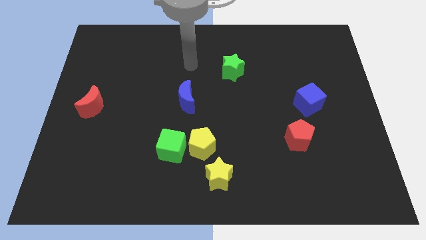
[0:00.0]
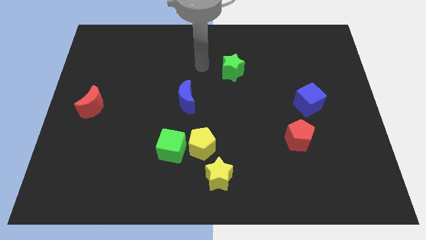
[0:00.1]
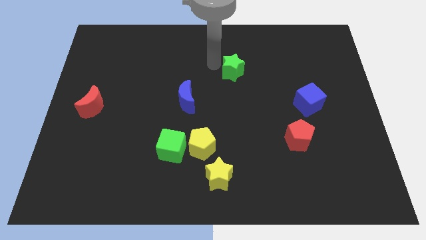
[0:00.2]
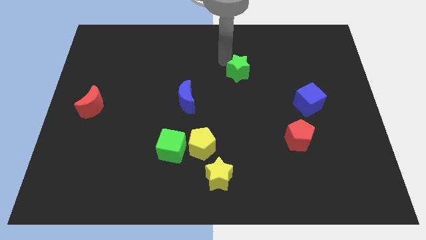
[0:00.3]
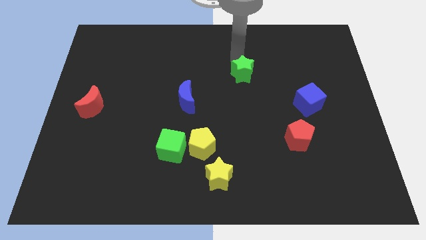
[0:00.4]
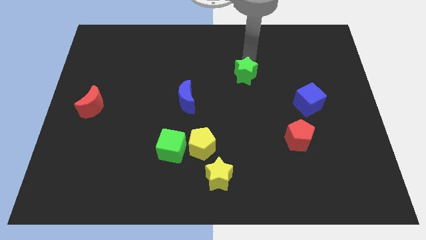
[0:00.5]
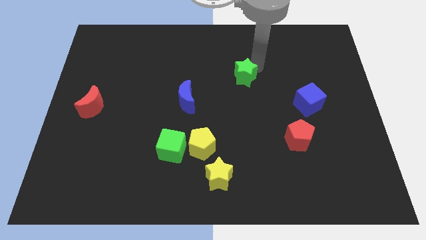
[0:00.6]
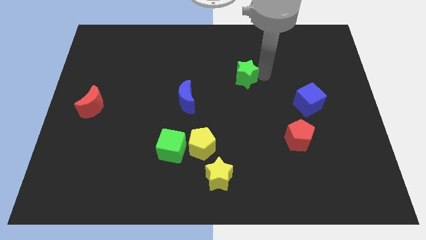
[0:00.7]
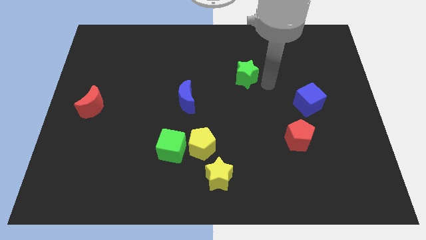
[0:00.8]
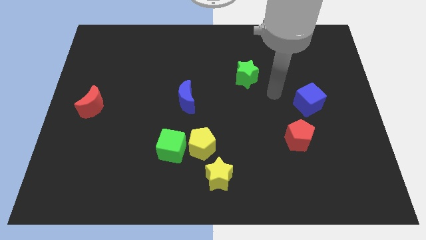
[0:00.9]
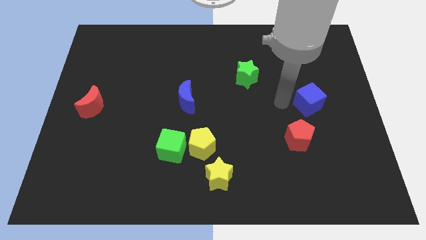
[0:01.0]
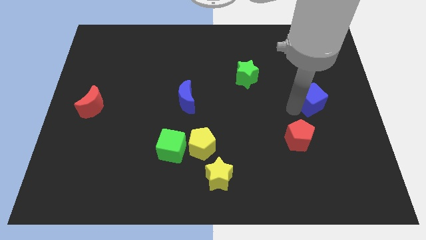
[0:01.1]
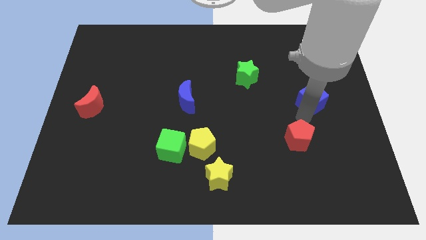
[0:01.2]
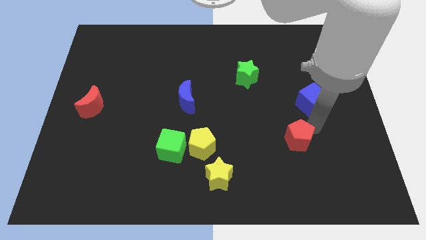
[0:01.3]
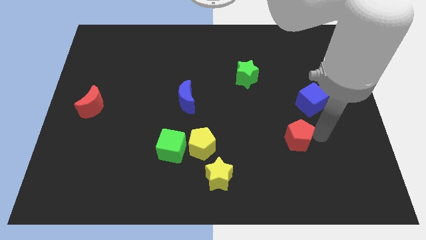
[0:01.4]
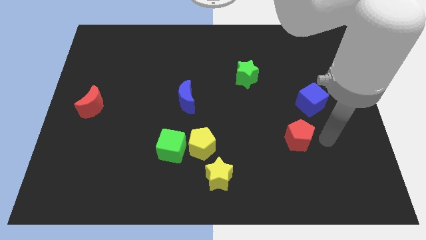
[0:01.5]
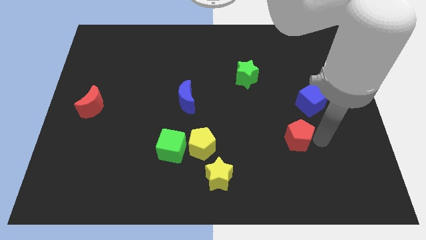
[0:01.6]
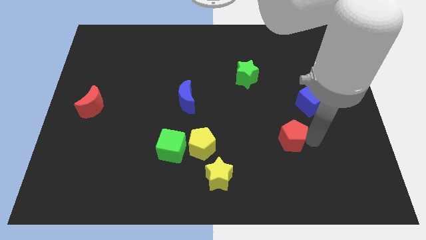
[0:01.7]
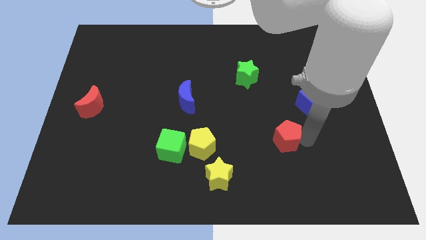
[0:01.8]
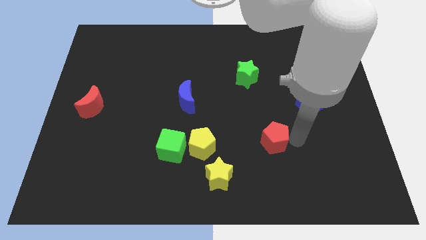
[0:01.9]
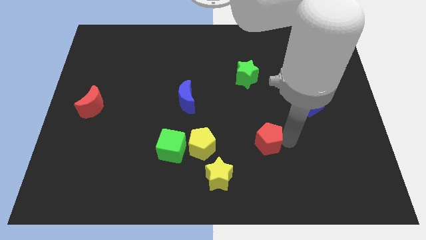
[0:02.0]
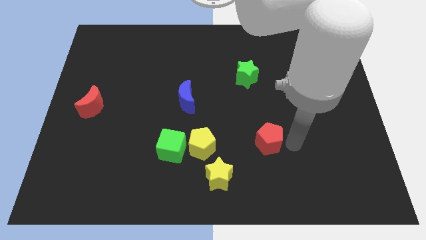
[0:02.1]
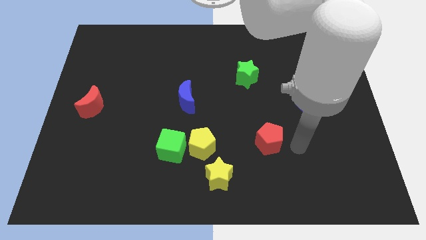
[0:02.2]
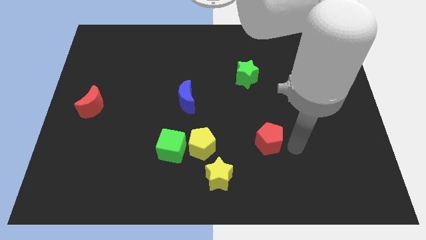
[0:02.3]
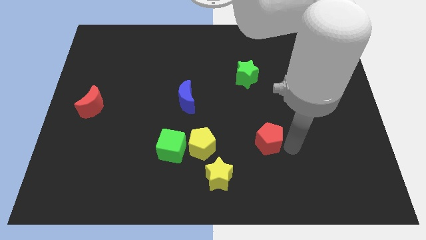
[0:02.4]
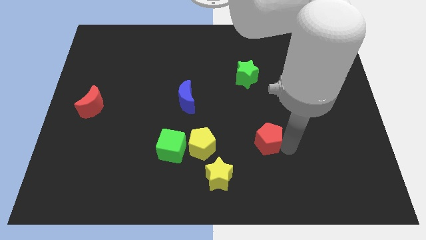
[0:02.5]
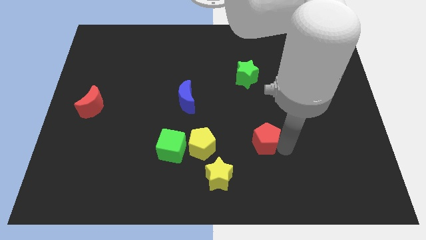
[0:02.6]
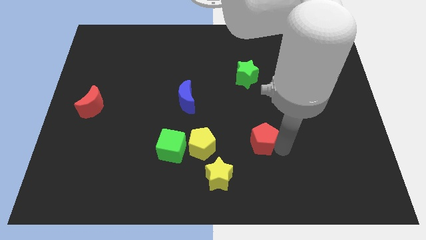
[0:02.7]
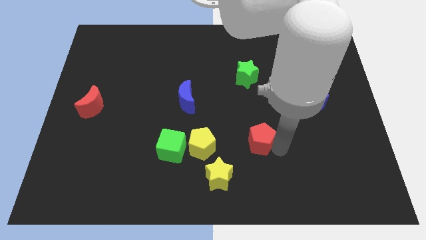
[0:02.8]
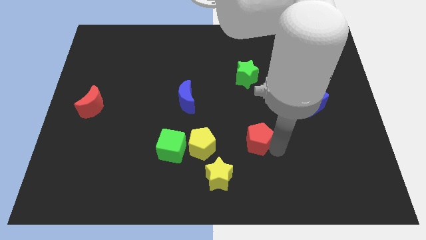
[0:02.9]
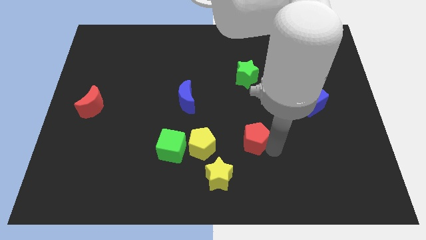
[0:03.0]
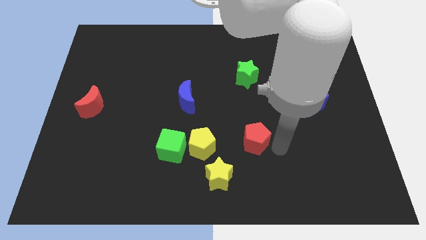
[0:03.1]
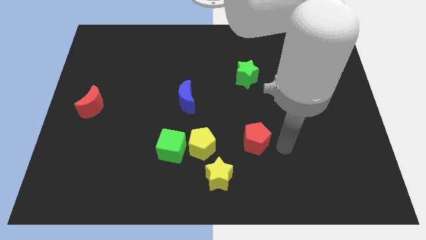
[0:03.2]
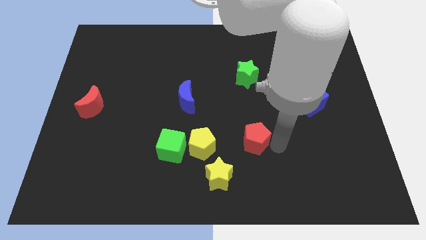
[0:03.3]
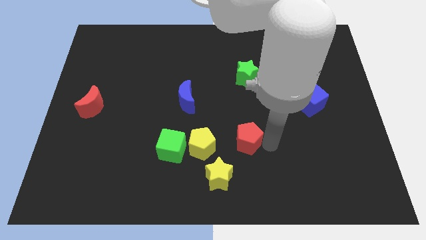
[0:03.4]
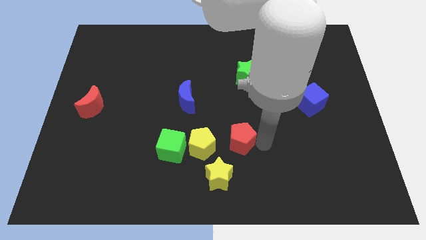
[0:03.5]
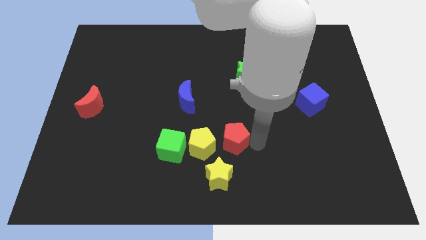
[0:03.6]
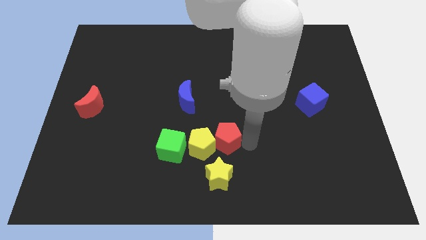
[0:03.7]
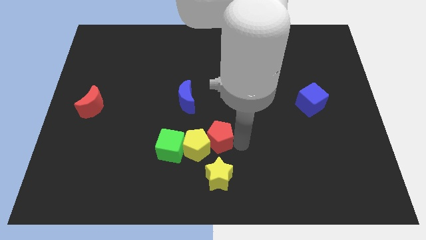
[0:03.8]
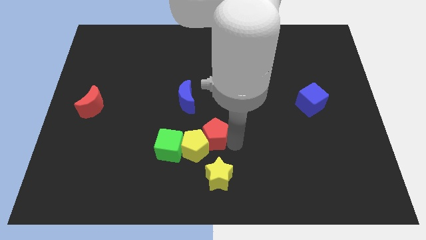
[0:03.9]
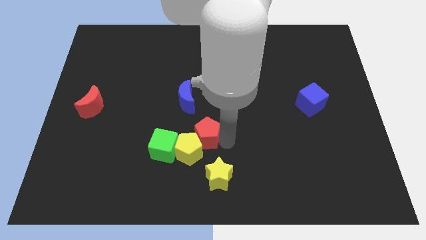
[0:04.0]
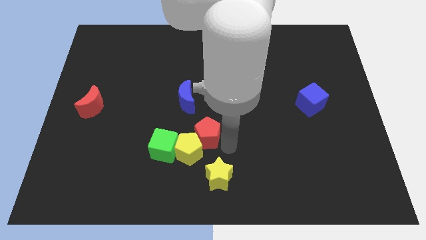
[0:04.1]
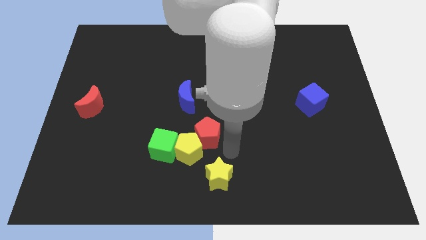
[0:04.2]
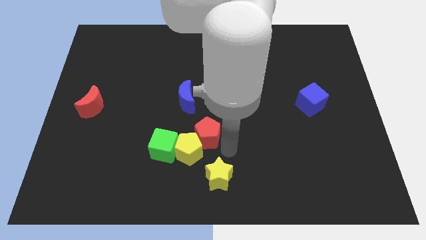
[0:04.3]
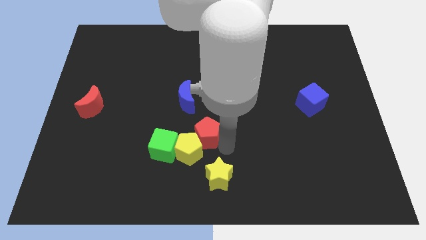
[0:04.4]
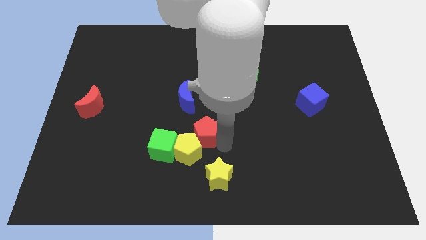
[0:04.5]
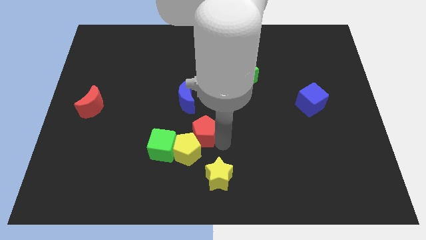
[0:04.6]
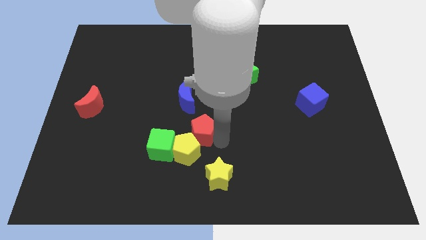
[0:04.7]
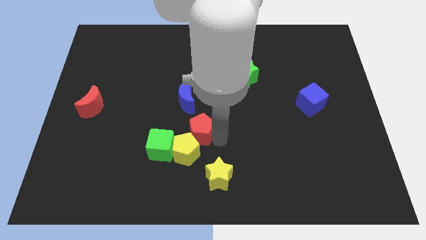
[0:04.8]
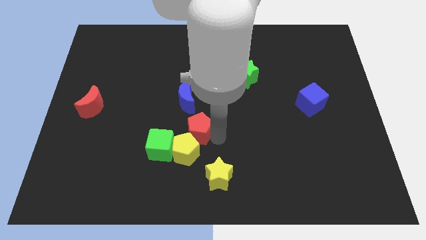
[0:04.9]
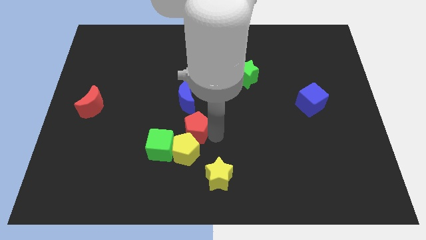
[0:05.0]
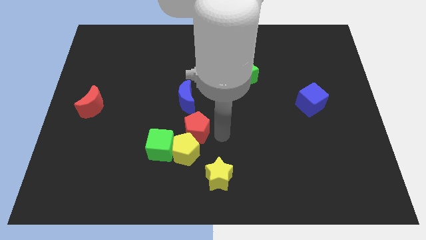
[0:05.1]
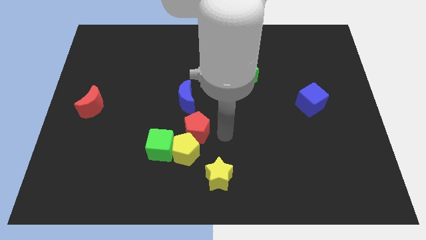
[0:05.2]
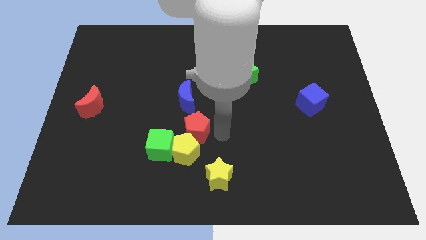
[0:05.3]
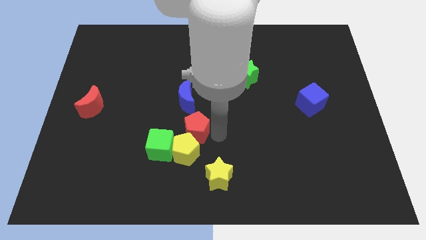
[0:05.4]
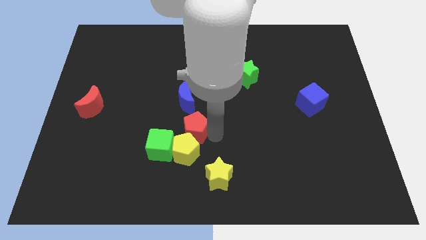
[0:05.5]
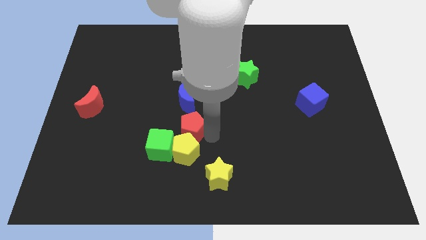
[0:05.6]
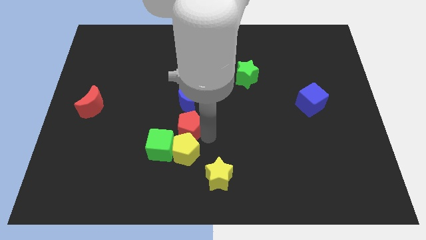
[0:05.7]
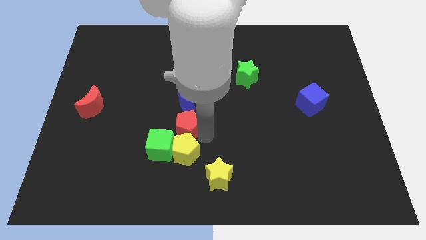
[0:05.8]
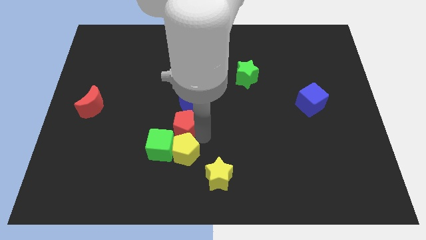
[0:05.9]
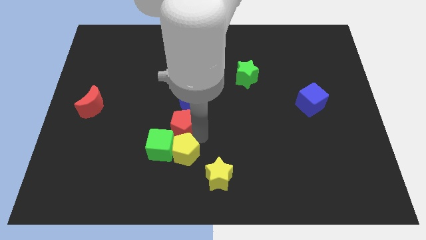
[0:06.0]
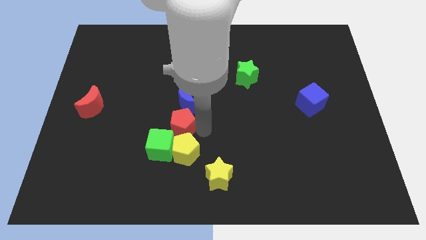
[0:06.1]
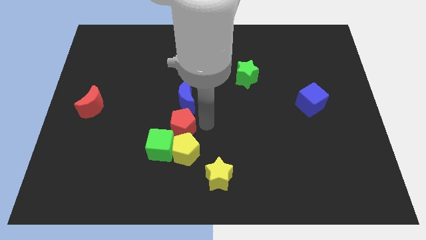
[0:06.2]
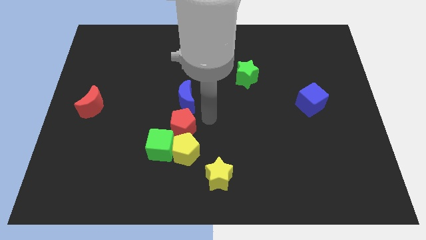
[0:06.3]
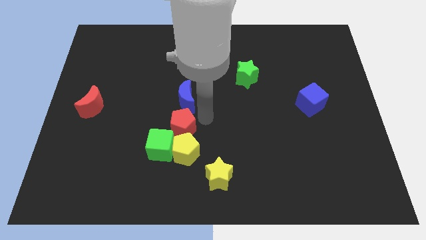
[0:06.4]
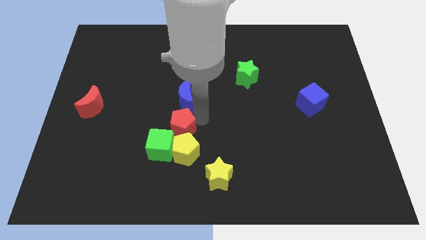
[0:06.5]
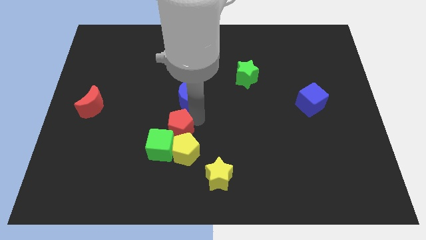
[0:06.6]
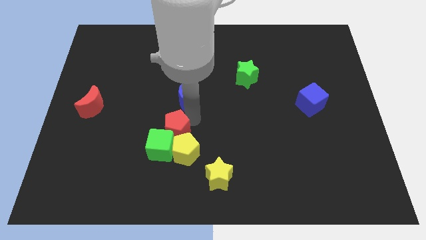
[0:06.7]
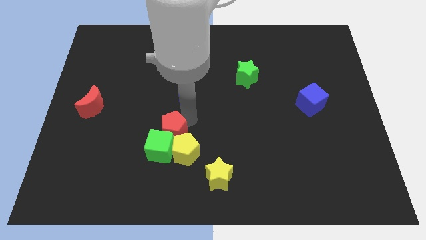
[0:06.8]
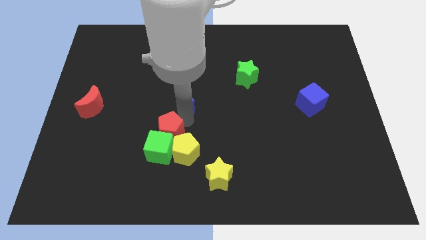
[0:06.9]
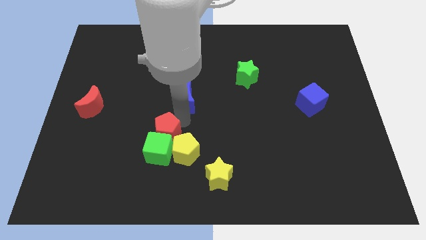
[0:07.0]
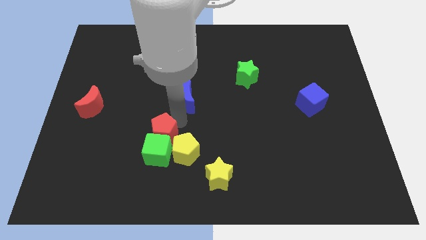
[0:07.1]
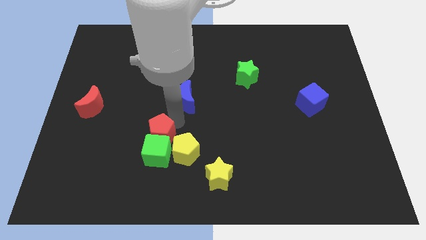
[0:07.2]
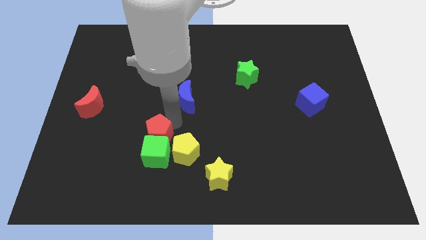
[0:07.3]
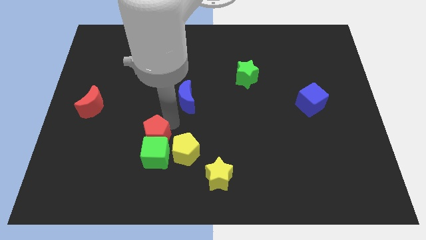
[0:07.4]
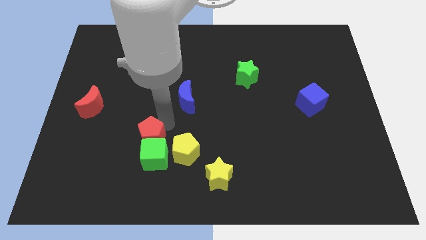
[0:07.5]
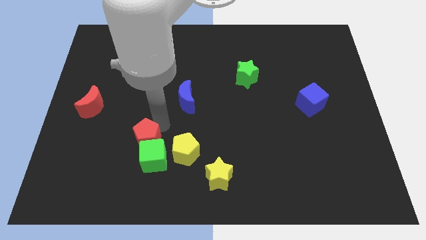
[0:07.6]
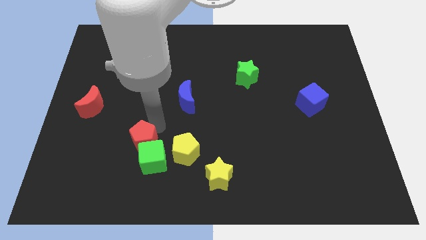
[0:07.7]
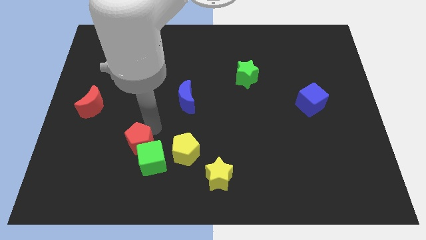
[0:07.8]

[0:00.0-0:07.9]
move the red pentagon left of the green cube
